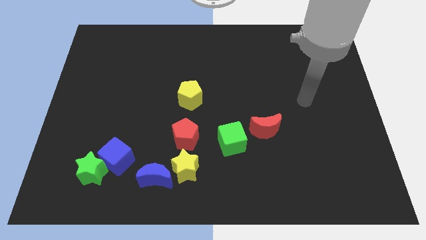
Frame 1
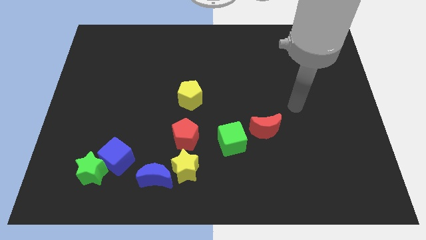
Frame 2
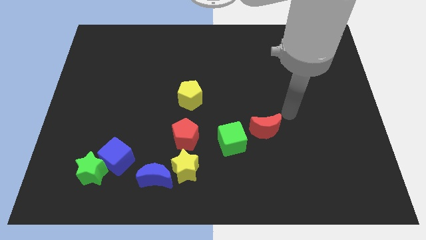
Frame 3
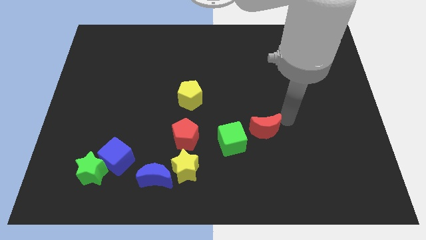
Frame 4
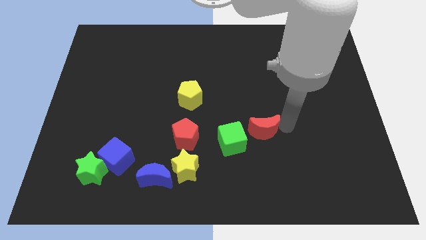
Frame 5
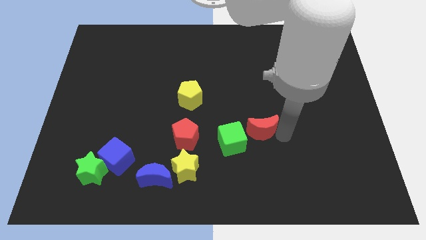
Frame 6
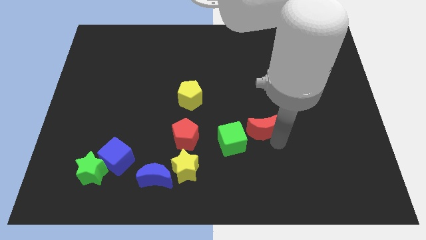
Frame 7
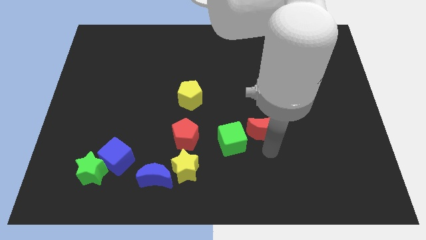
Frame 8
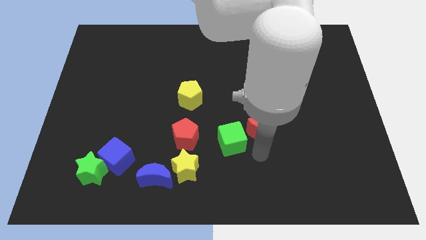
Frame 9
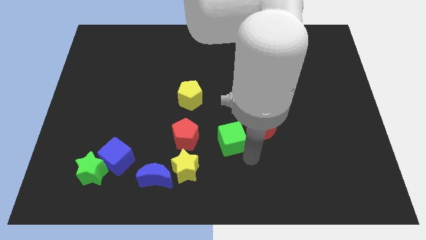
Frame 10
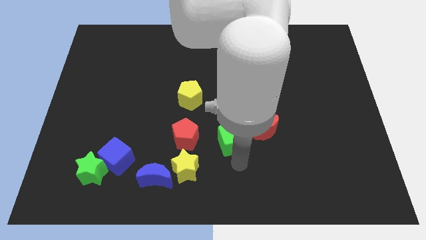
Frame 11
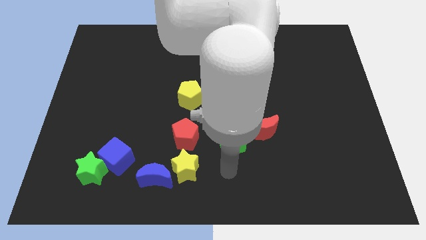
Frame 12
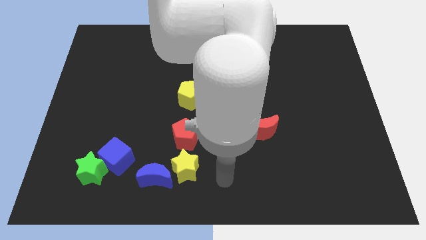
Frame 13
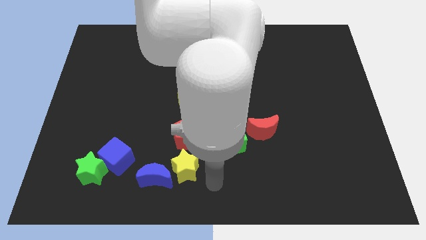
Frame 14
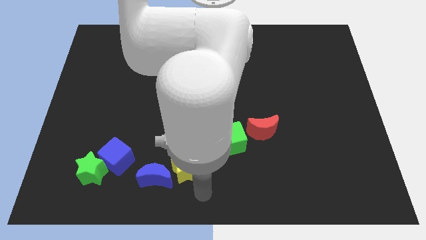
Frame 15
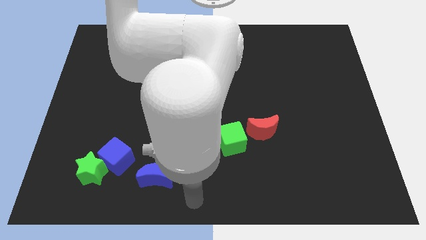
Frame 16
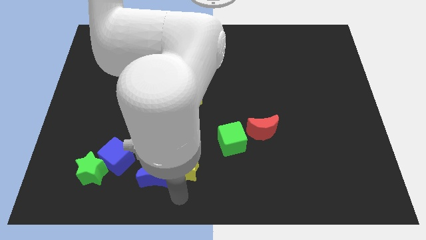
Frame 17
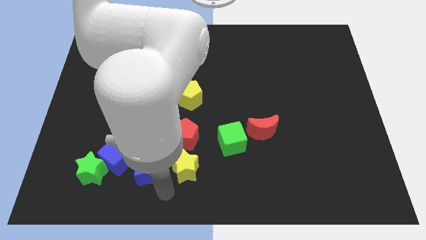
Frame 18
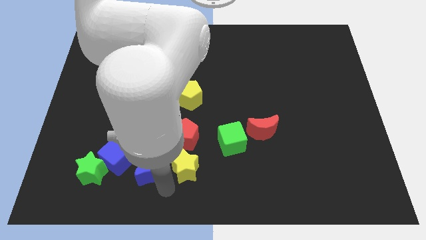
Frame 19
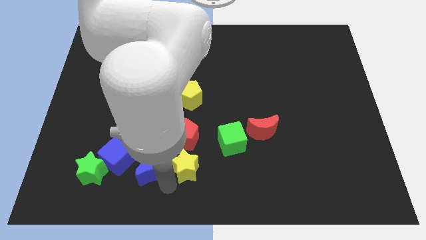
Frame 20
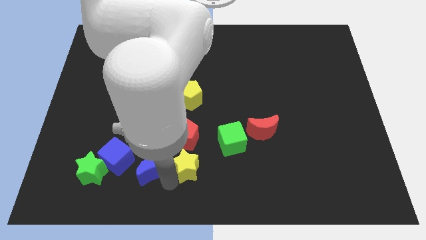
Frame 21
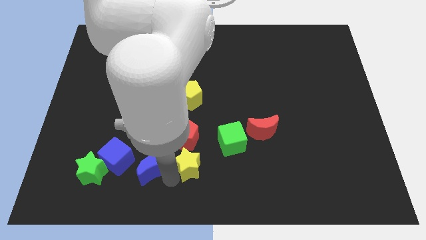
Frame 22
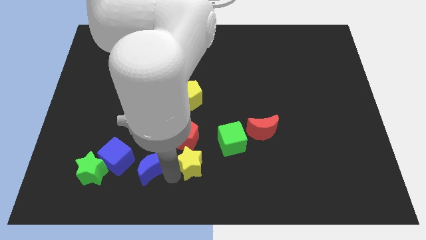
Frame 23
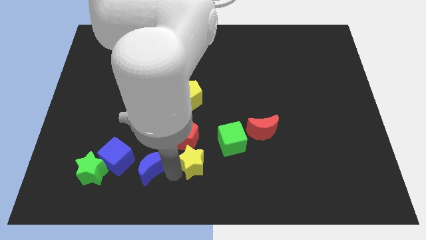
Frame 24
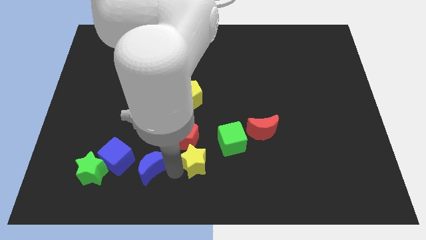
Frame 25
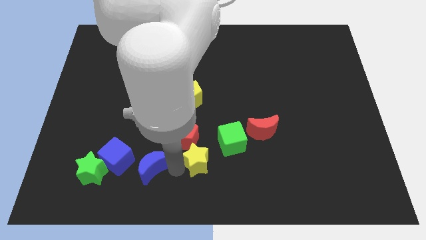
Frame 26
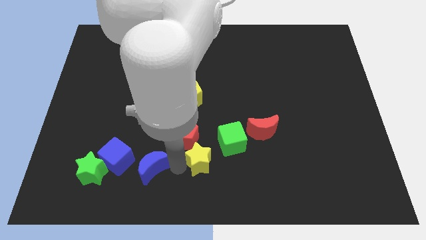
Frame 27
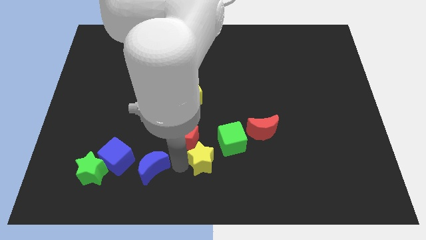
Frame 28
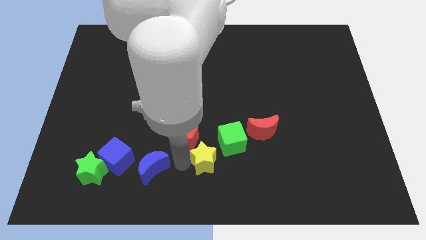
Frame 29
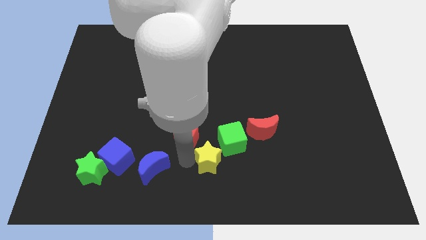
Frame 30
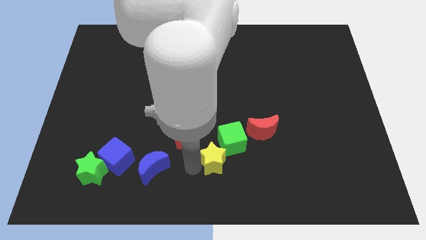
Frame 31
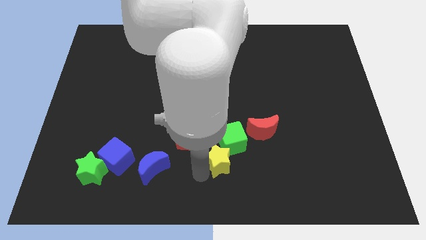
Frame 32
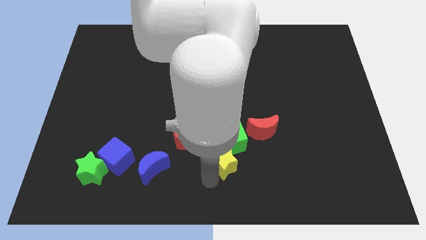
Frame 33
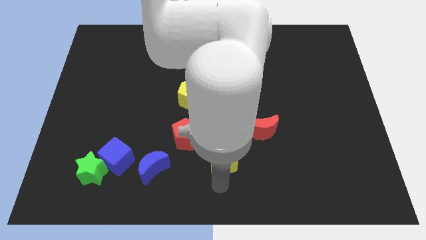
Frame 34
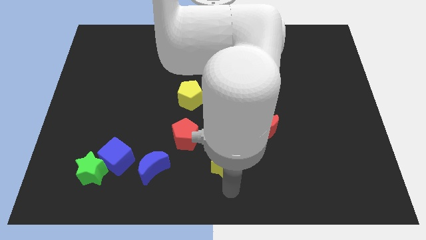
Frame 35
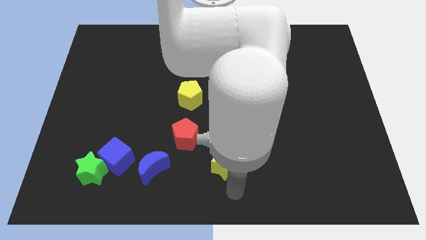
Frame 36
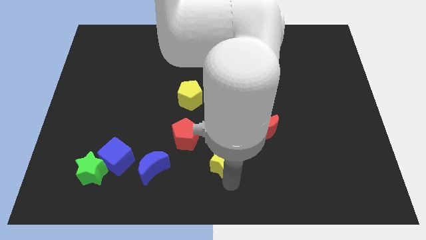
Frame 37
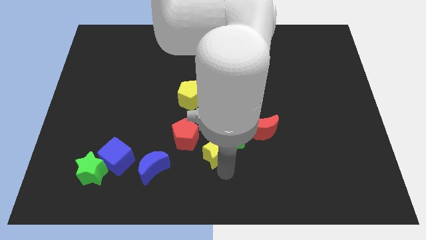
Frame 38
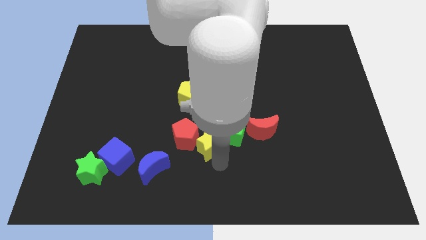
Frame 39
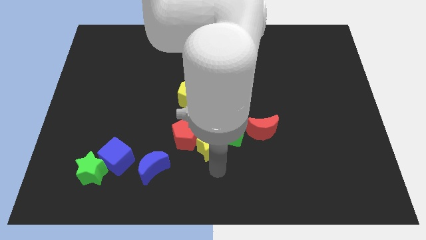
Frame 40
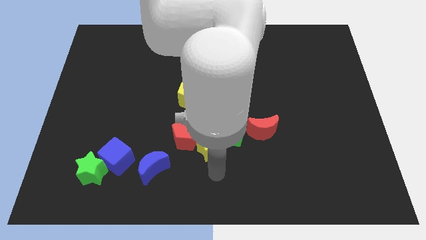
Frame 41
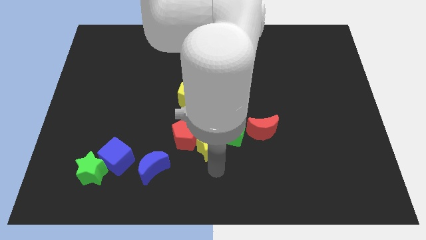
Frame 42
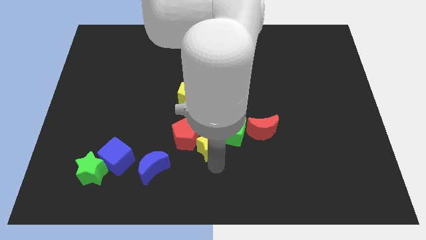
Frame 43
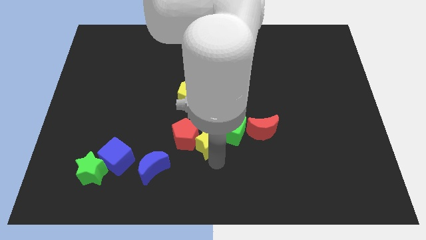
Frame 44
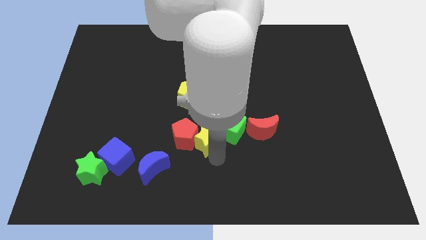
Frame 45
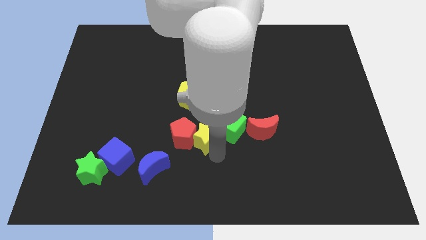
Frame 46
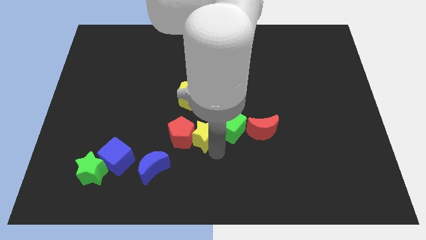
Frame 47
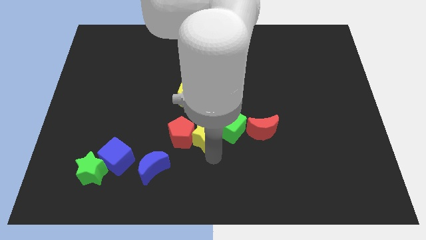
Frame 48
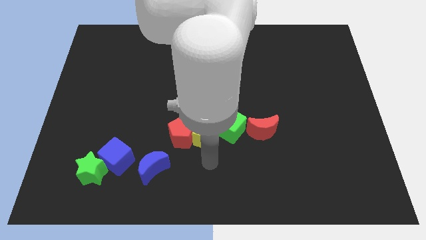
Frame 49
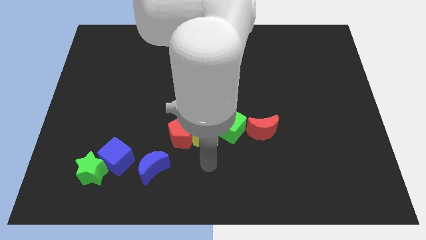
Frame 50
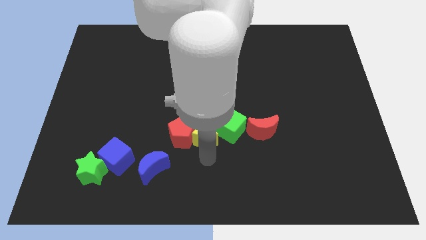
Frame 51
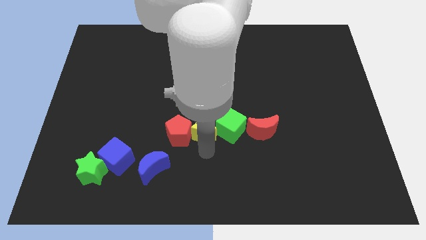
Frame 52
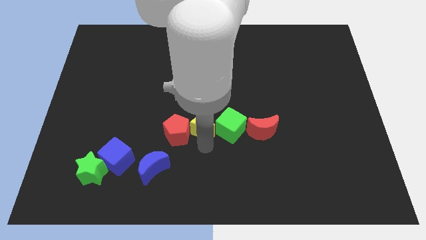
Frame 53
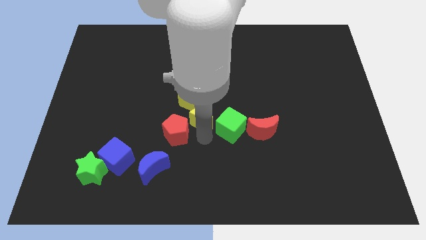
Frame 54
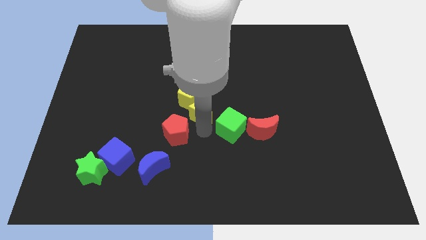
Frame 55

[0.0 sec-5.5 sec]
slide the yellow star towards the yellow pentagon

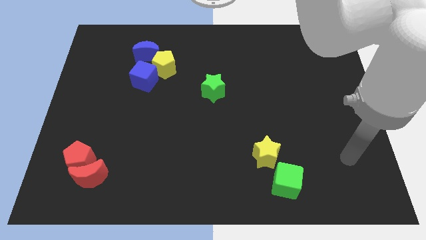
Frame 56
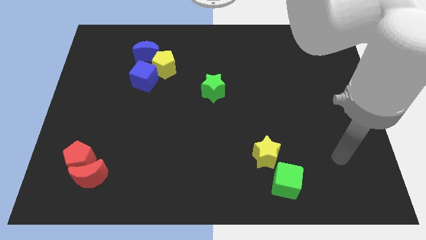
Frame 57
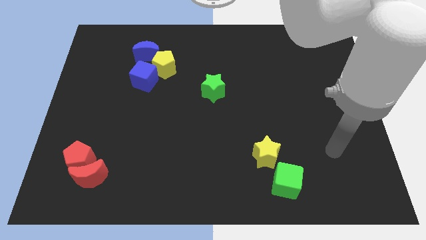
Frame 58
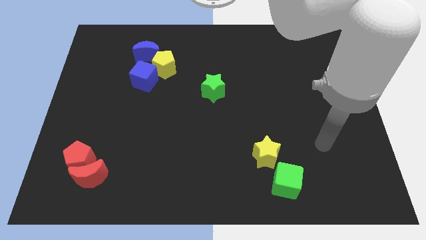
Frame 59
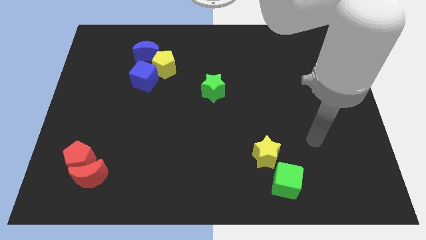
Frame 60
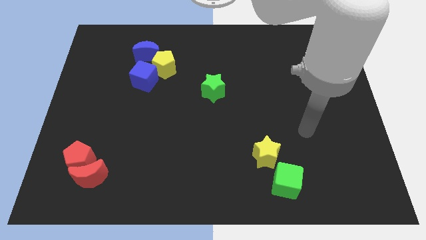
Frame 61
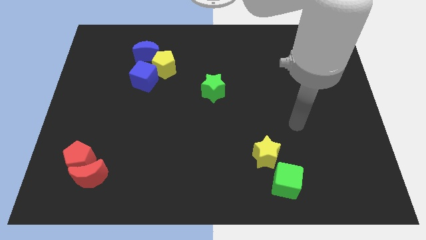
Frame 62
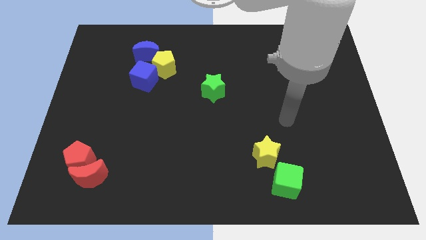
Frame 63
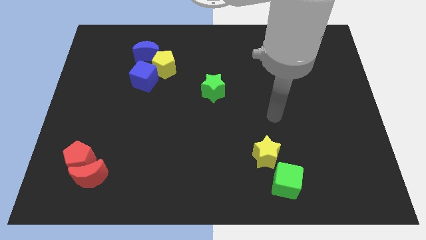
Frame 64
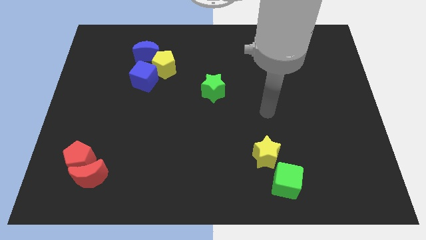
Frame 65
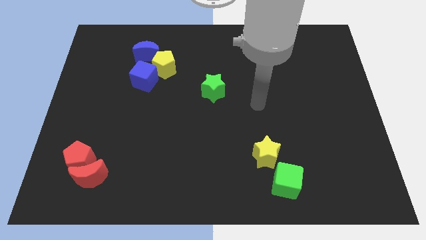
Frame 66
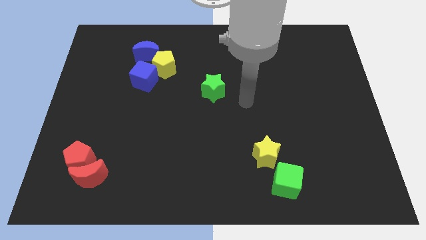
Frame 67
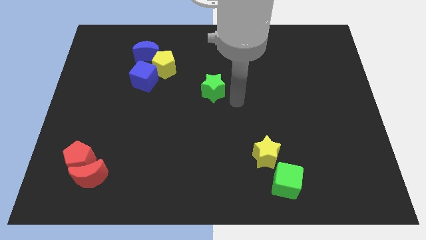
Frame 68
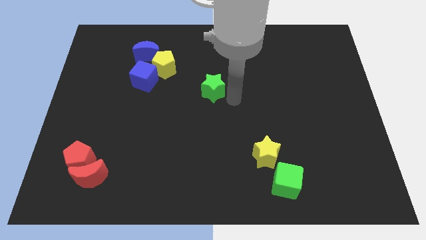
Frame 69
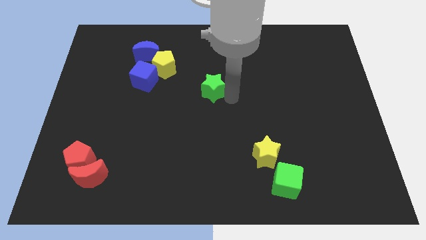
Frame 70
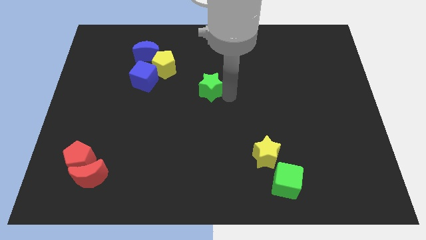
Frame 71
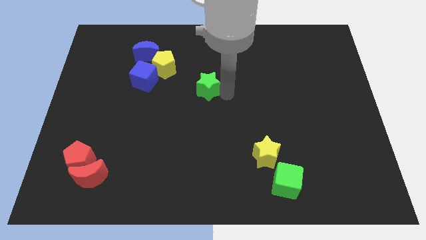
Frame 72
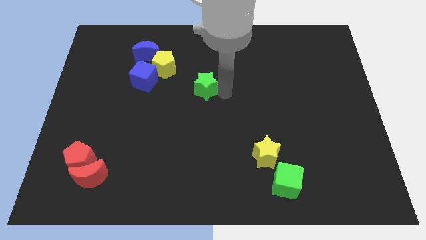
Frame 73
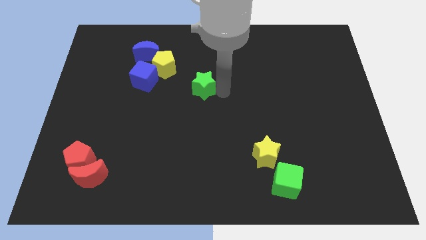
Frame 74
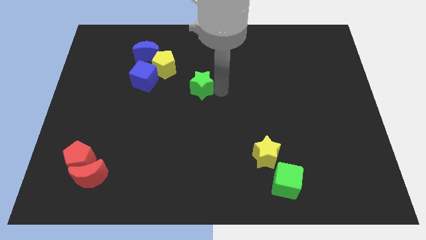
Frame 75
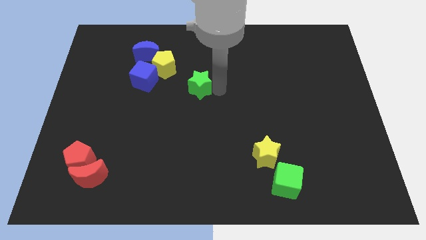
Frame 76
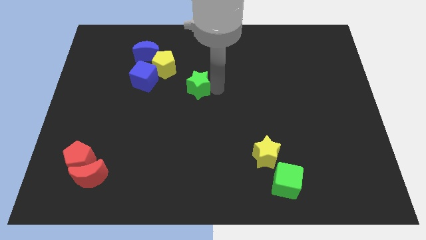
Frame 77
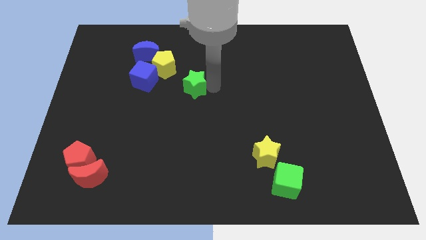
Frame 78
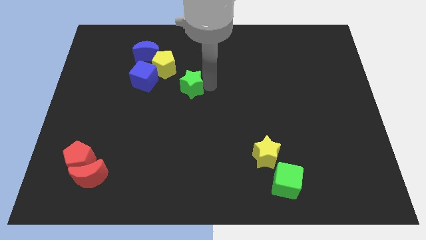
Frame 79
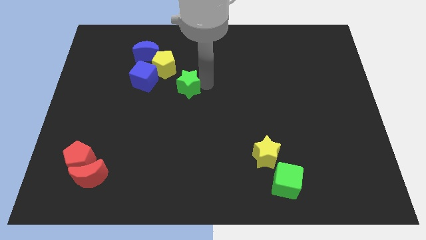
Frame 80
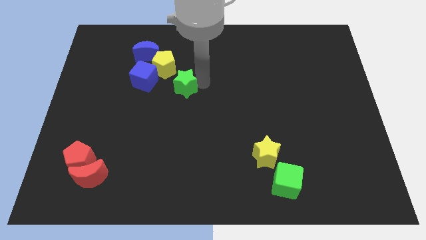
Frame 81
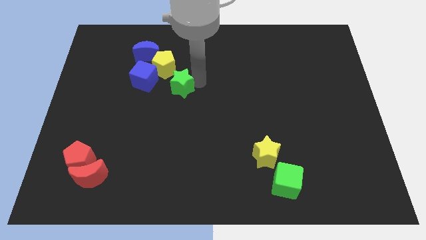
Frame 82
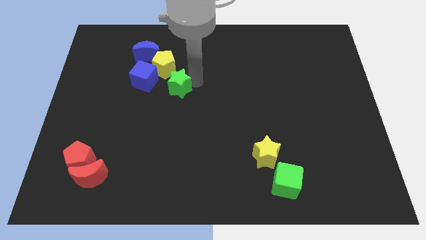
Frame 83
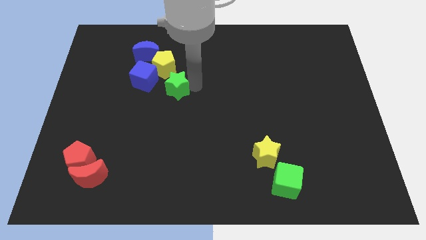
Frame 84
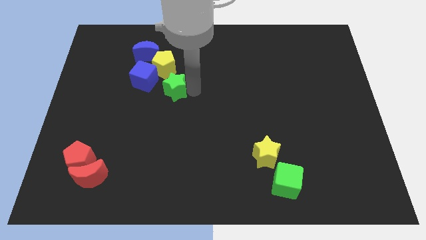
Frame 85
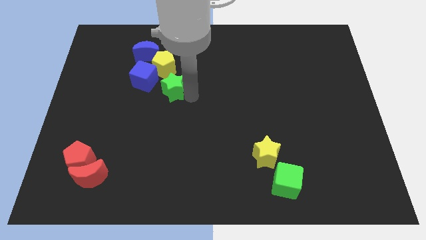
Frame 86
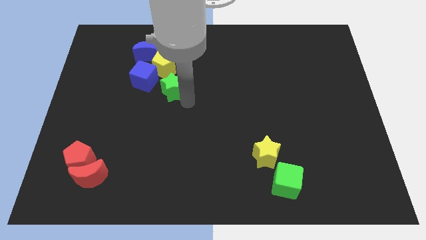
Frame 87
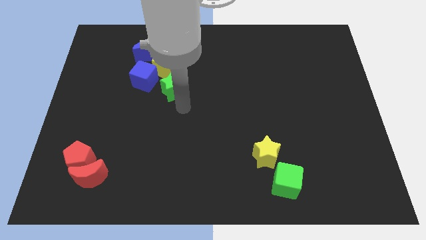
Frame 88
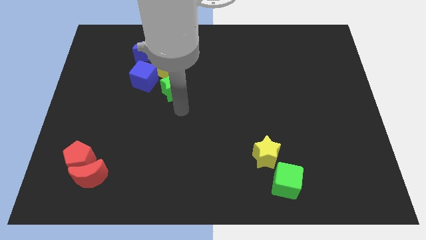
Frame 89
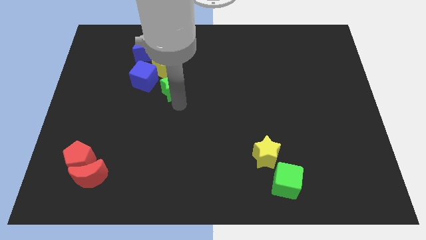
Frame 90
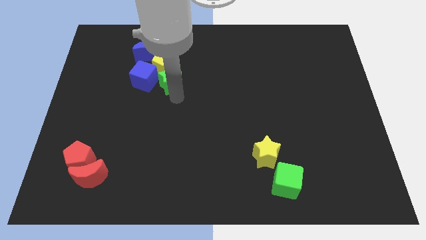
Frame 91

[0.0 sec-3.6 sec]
push the green star to the yellow pentagon
